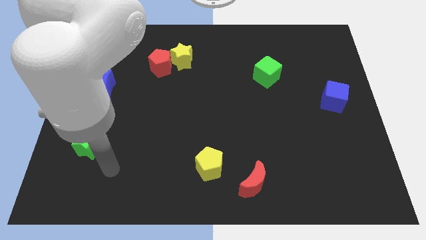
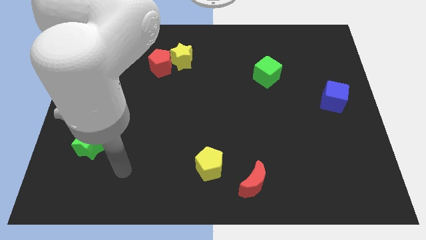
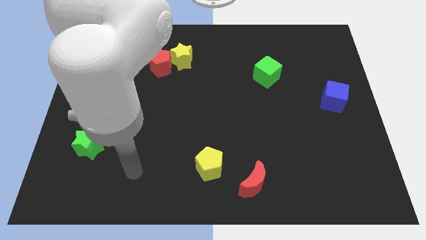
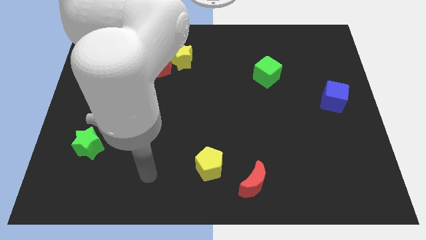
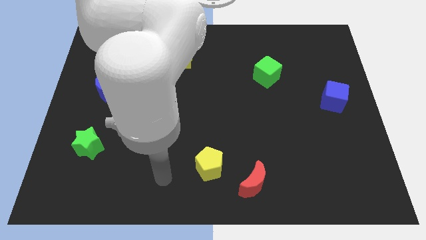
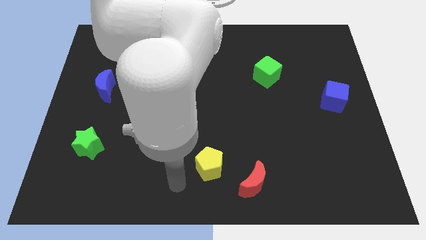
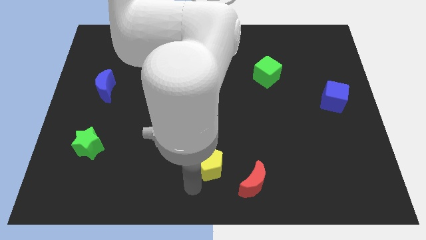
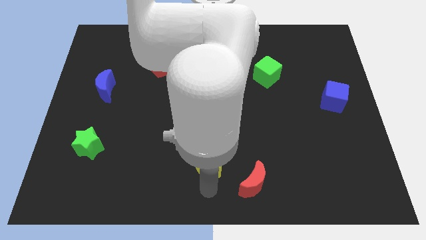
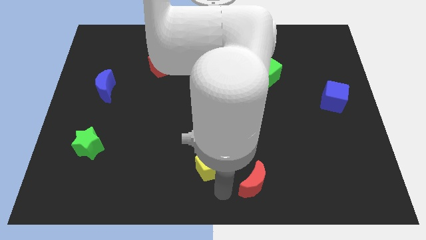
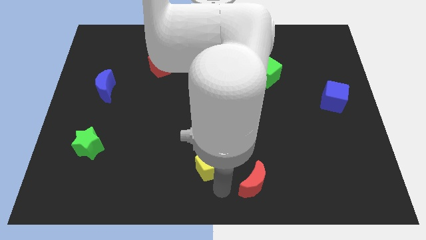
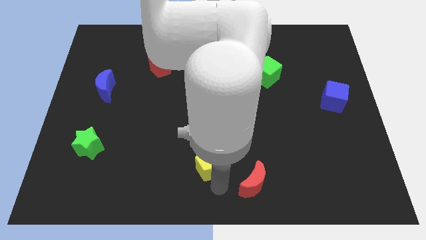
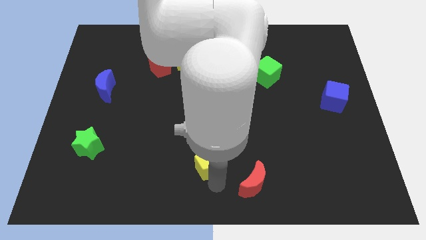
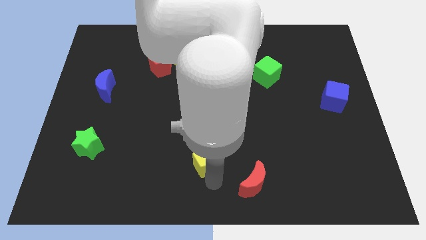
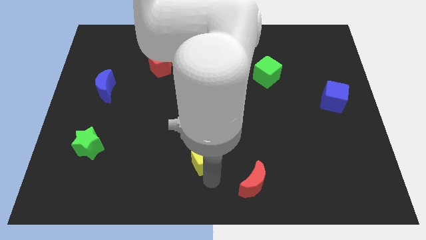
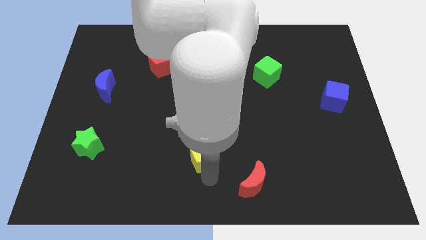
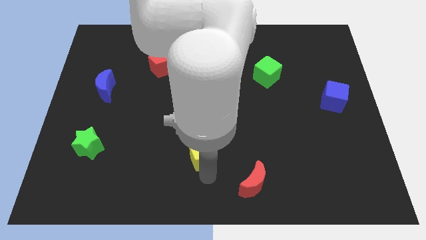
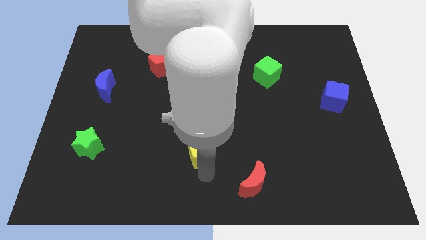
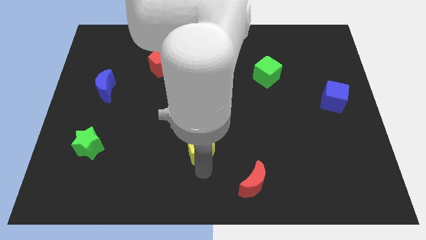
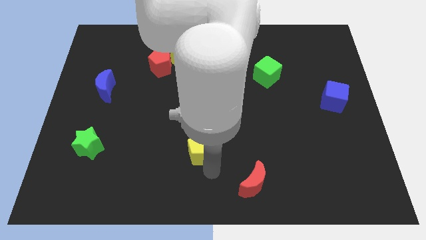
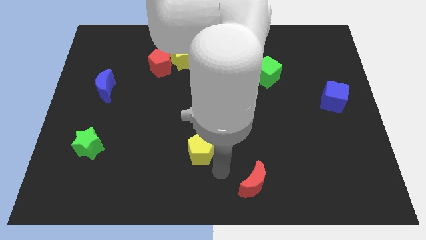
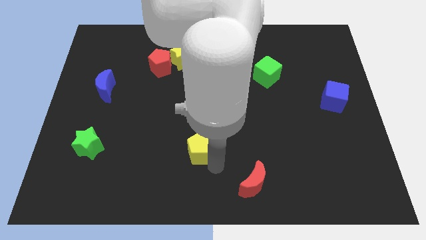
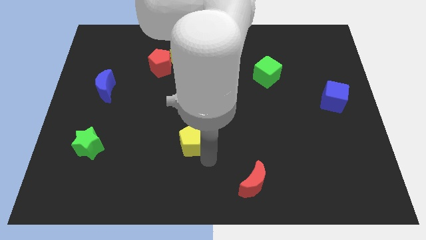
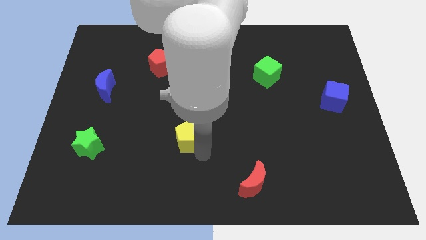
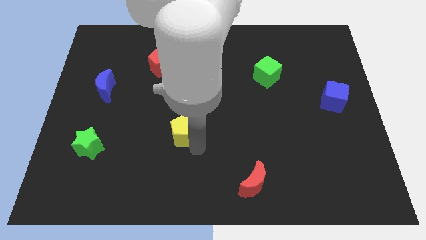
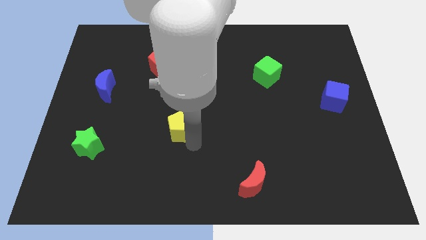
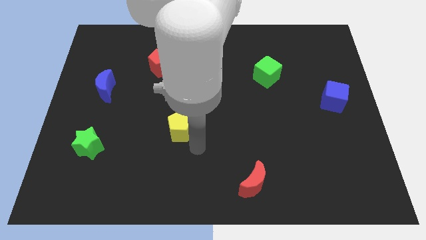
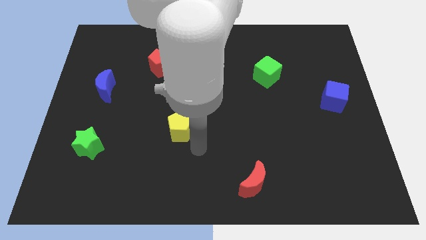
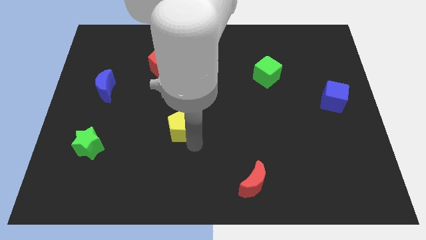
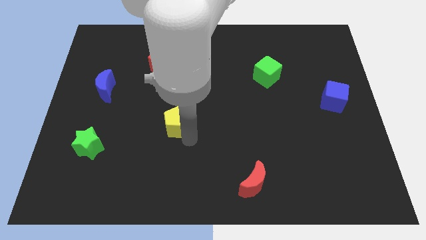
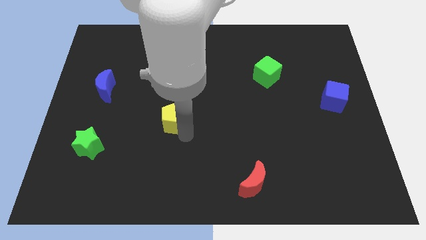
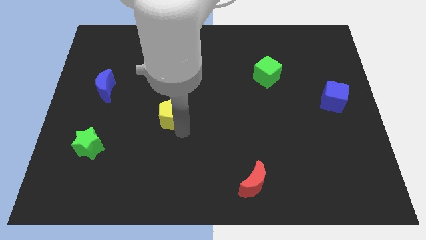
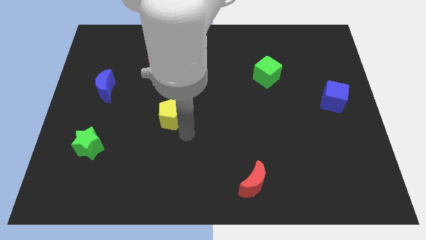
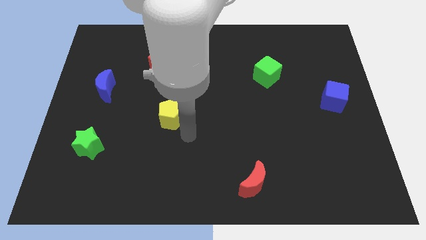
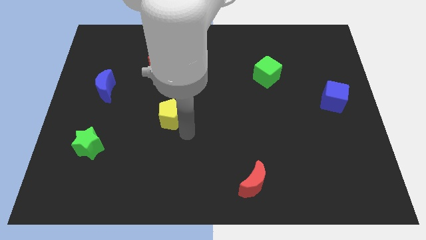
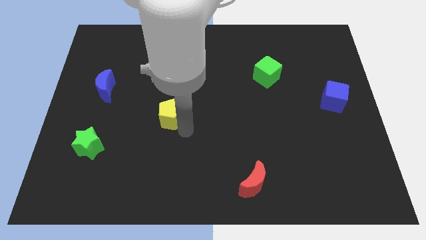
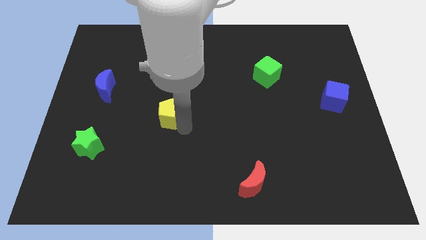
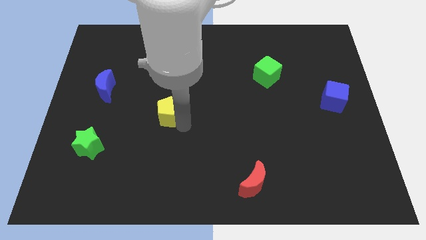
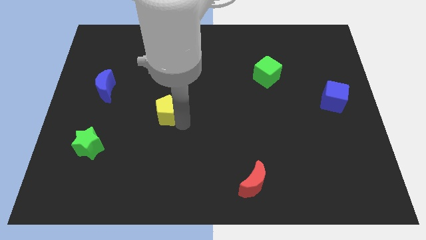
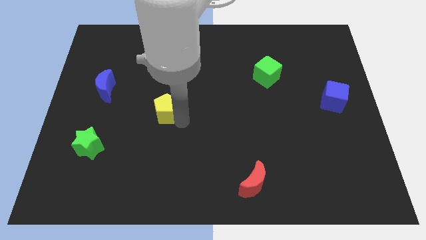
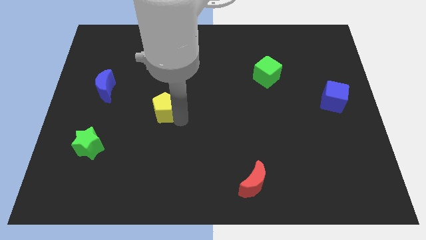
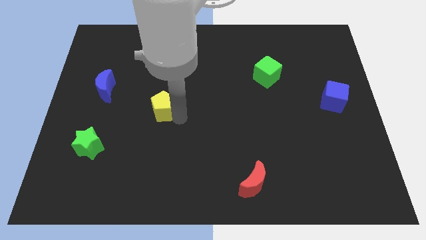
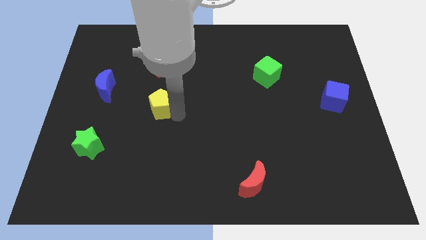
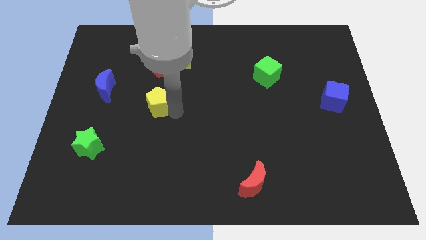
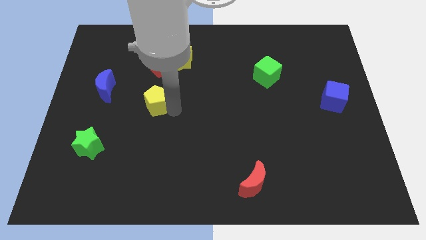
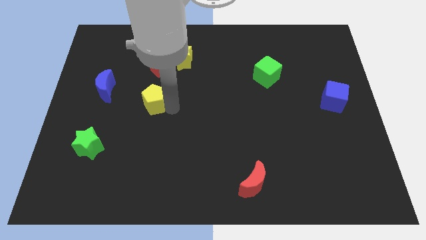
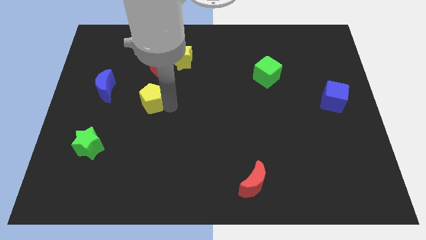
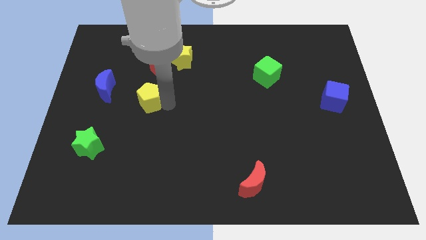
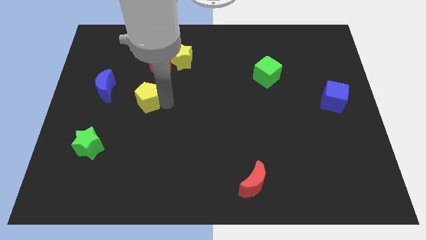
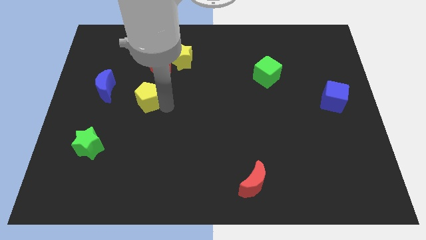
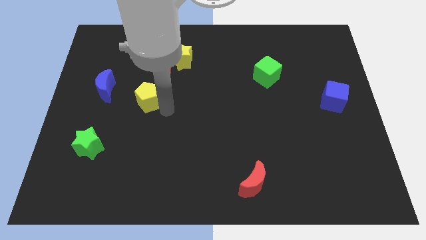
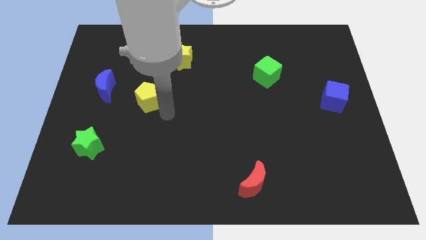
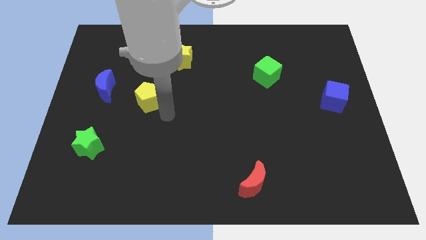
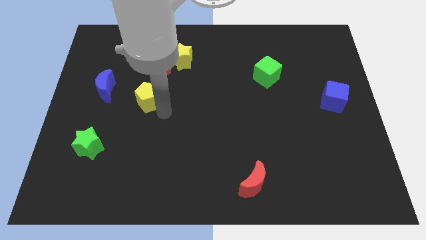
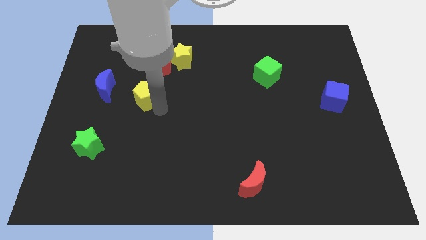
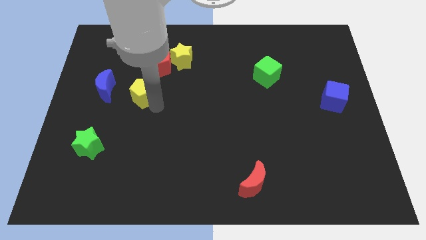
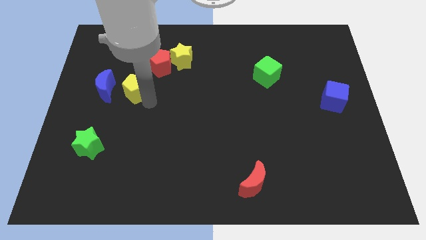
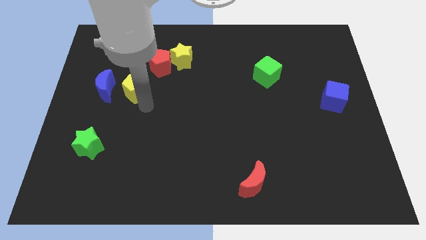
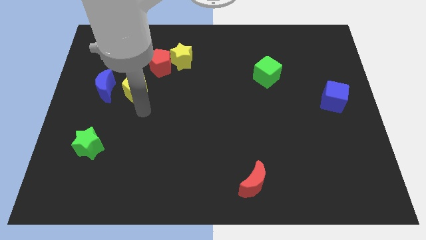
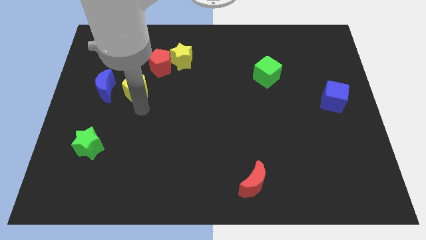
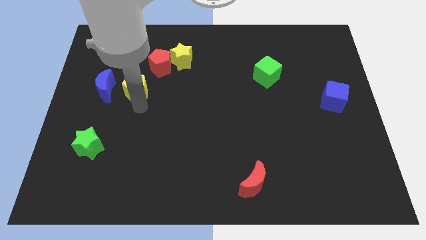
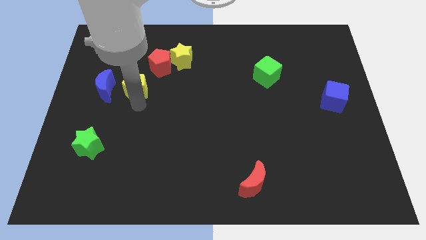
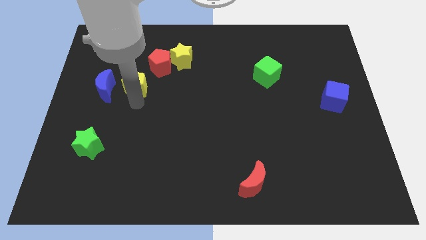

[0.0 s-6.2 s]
put the yellow pentagon to the top right side of the blue moon

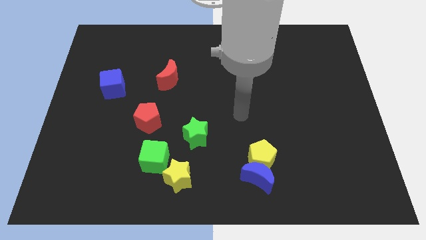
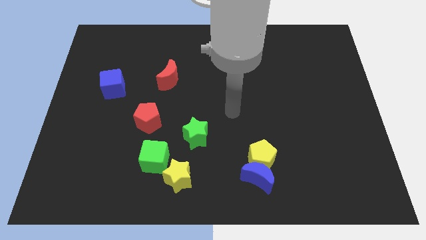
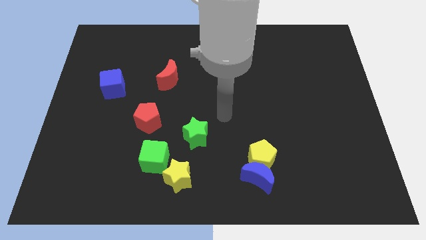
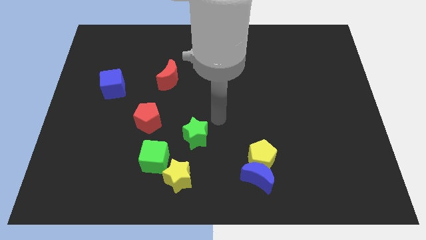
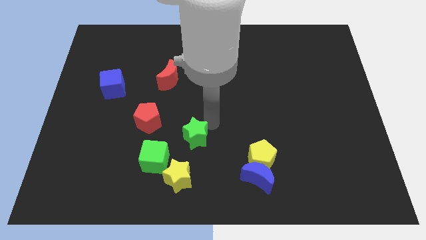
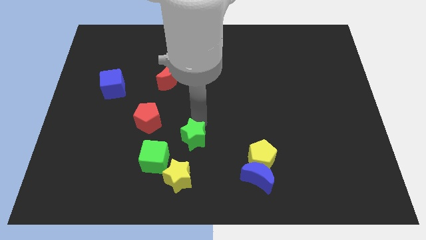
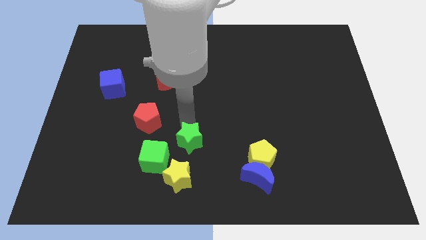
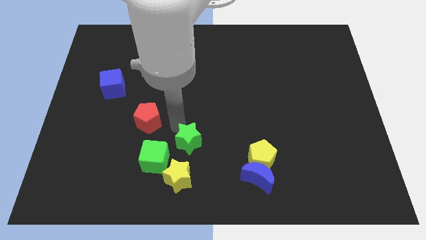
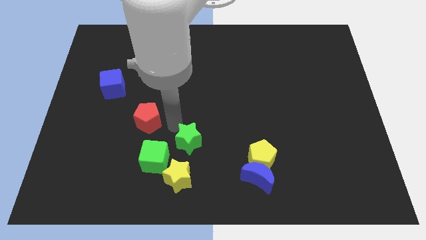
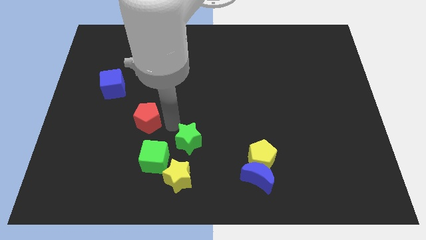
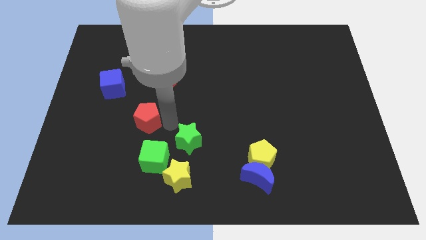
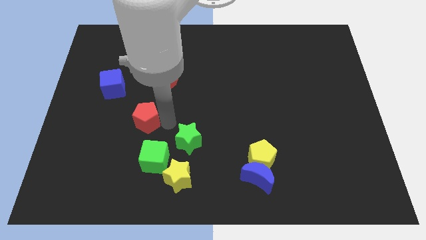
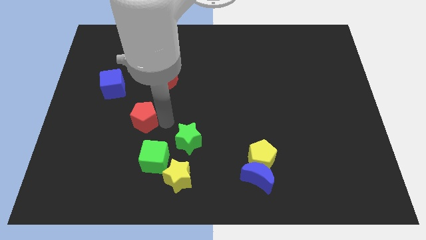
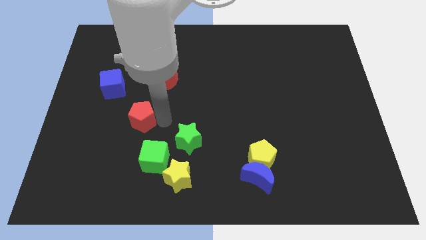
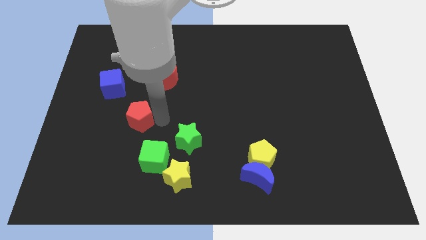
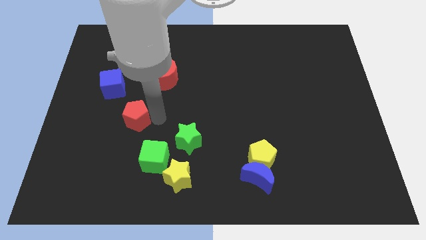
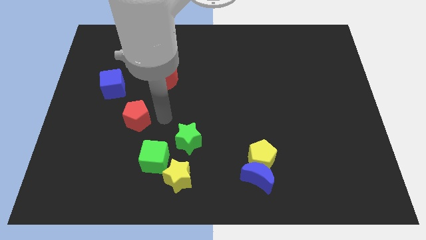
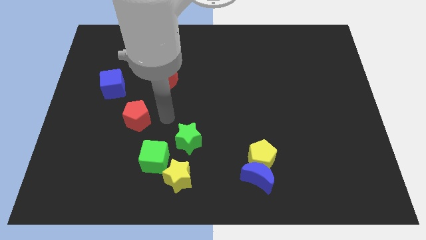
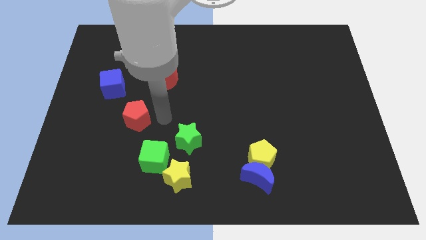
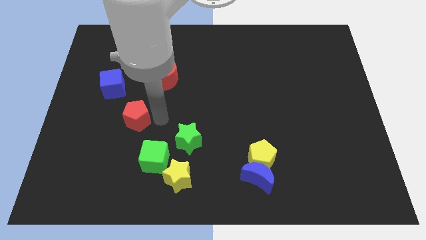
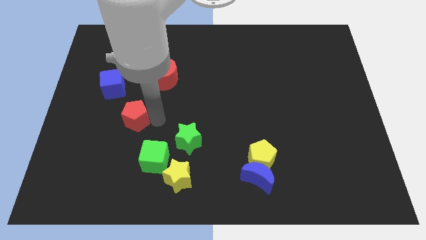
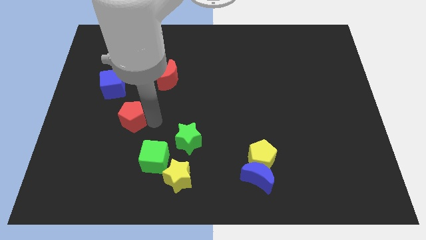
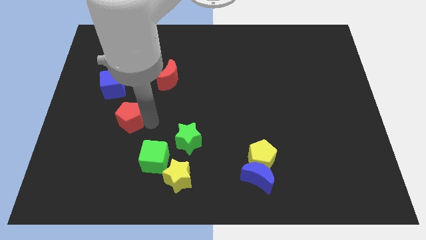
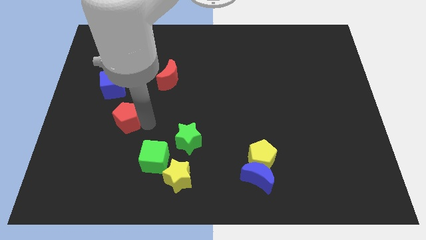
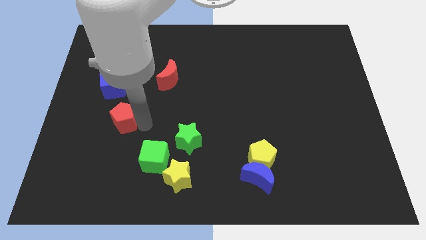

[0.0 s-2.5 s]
push the red pentagon to the bottom of the blue cube
